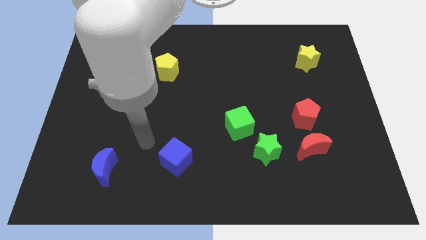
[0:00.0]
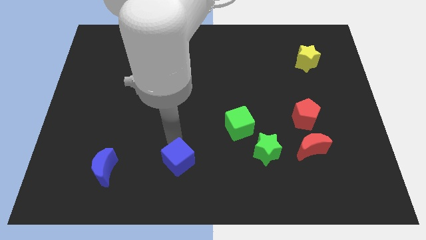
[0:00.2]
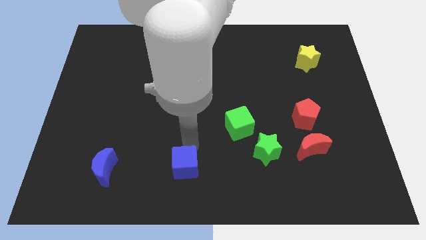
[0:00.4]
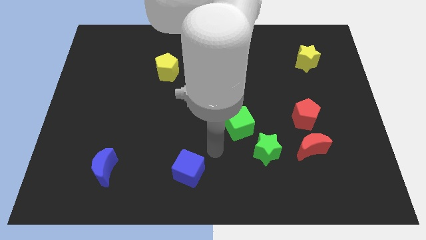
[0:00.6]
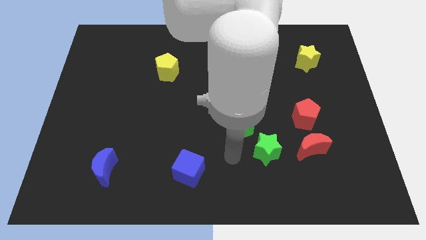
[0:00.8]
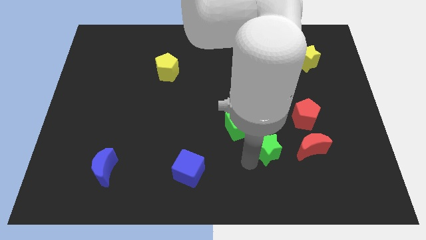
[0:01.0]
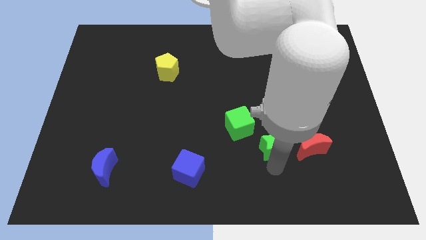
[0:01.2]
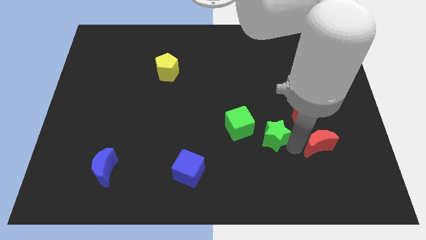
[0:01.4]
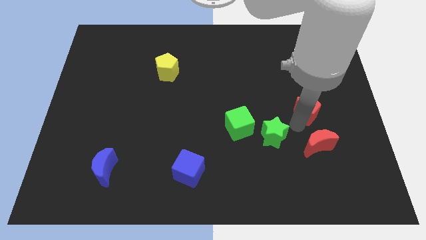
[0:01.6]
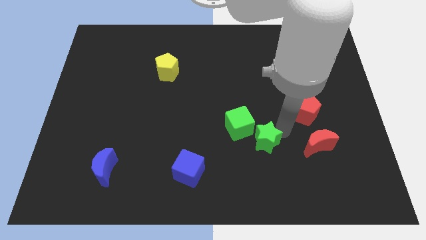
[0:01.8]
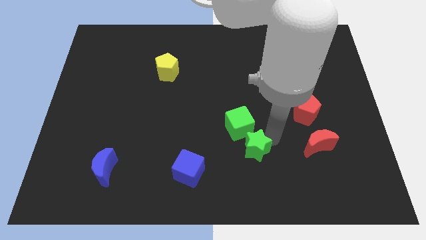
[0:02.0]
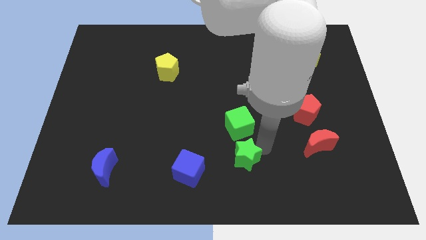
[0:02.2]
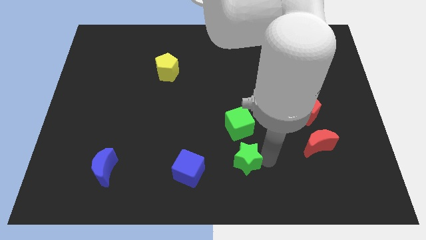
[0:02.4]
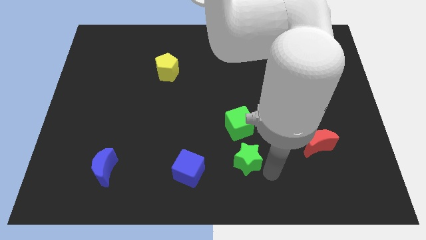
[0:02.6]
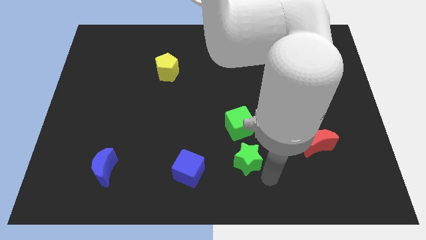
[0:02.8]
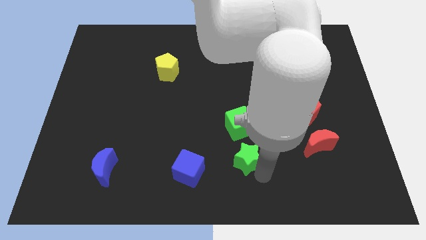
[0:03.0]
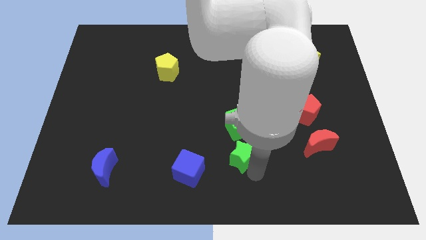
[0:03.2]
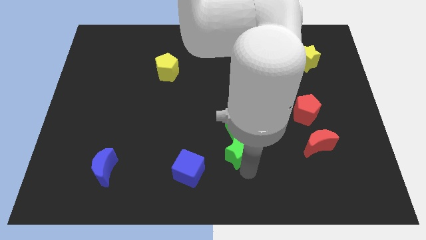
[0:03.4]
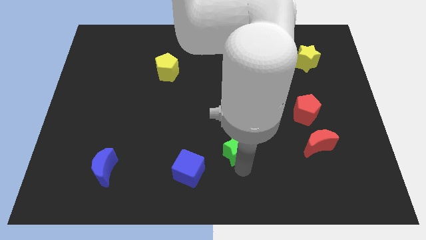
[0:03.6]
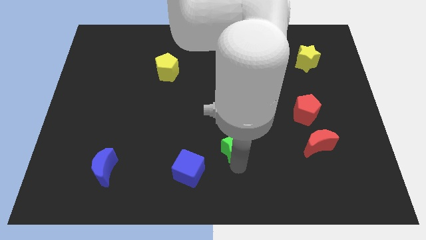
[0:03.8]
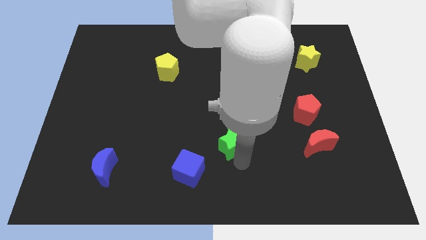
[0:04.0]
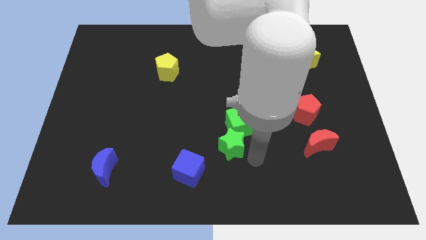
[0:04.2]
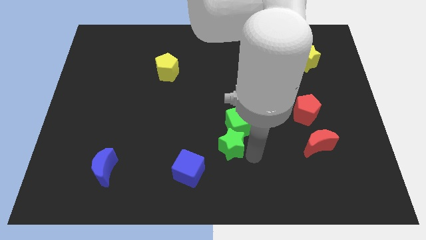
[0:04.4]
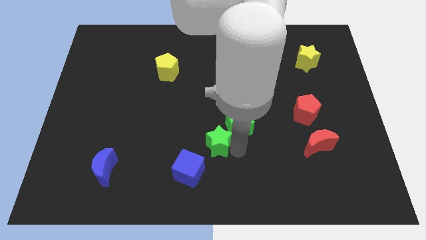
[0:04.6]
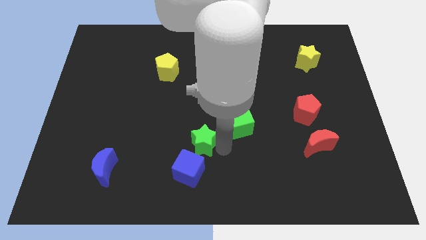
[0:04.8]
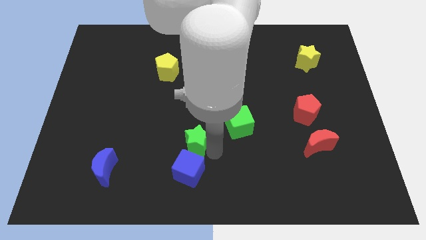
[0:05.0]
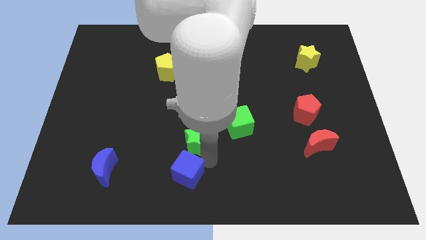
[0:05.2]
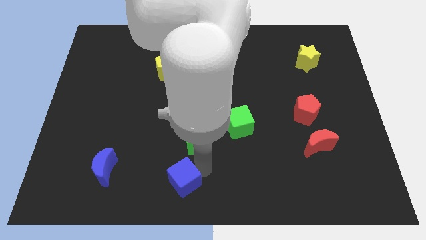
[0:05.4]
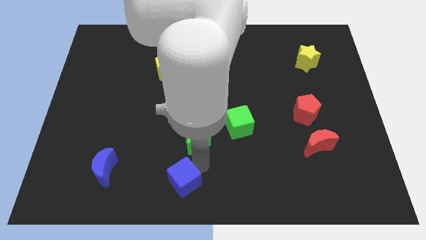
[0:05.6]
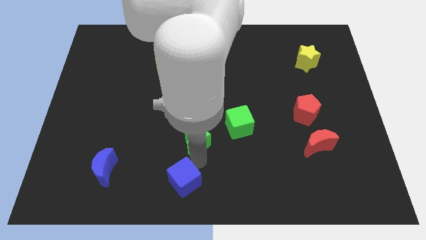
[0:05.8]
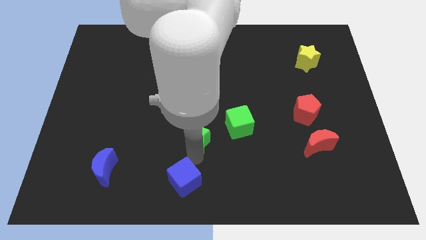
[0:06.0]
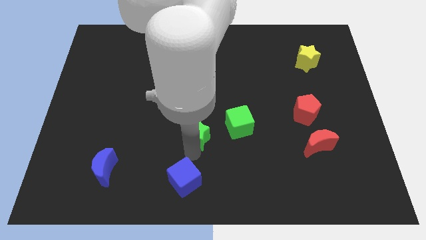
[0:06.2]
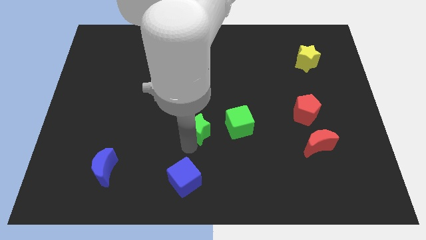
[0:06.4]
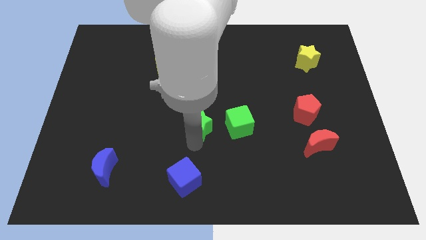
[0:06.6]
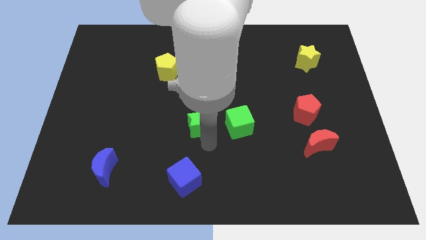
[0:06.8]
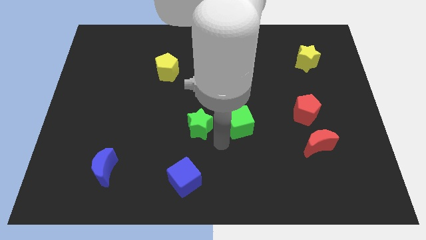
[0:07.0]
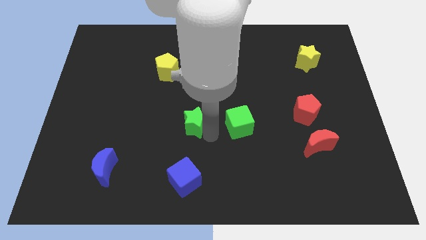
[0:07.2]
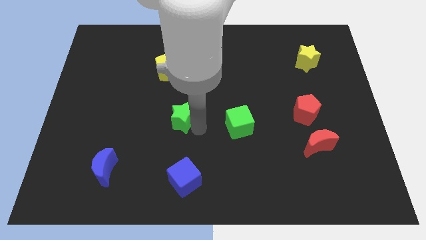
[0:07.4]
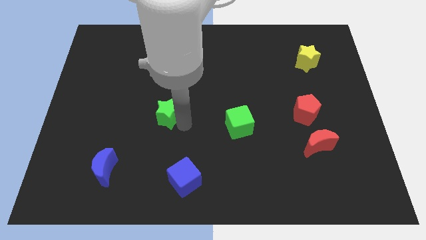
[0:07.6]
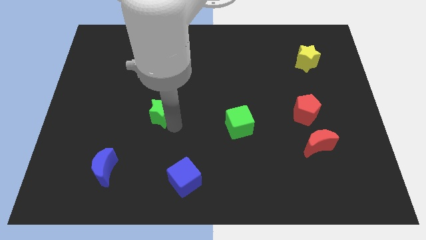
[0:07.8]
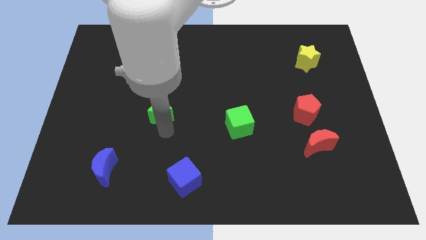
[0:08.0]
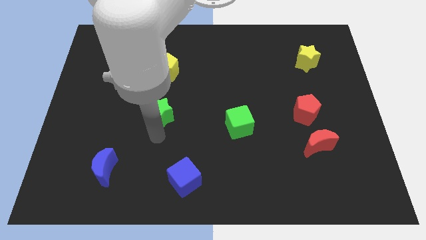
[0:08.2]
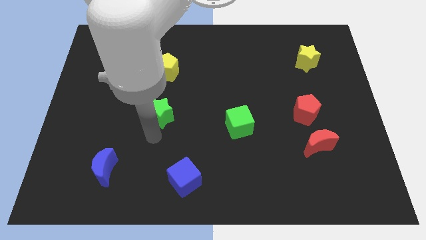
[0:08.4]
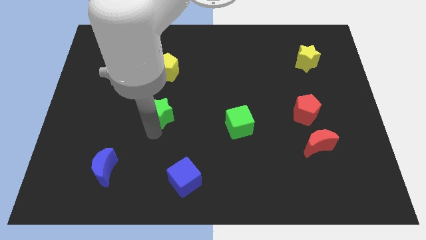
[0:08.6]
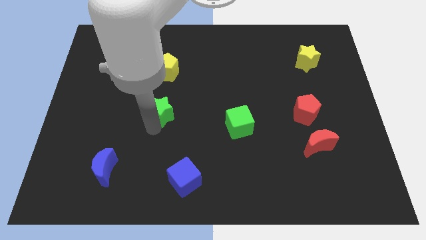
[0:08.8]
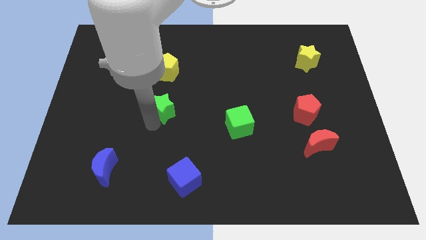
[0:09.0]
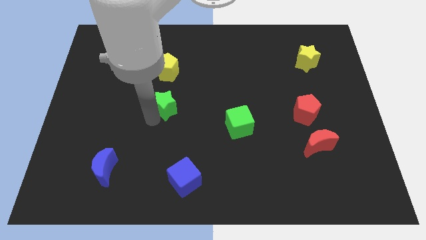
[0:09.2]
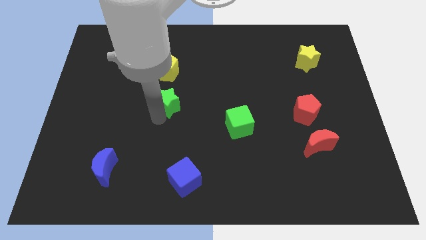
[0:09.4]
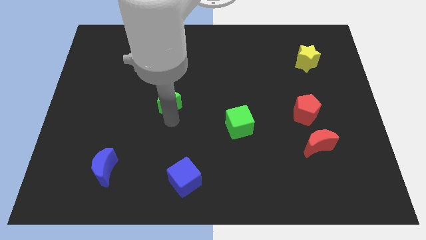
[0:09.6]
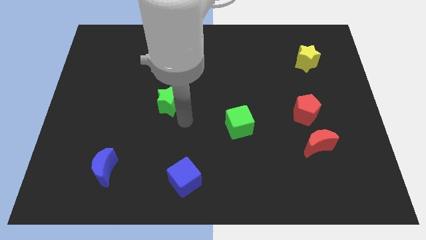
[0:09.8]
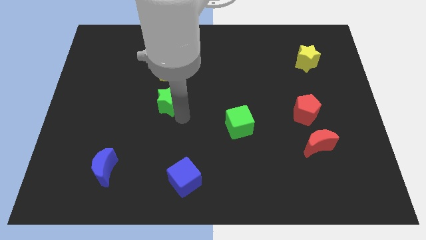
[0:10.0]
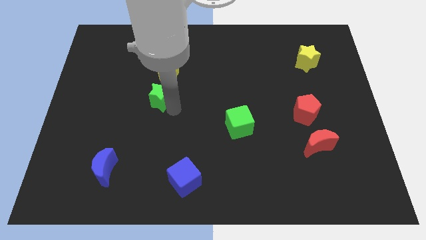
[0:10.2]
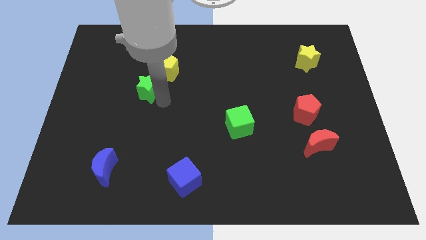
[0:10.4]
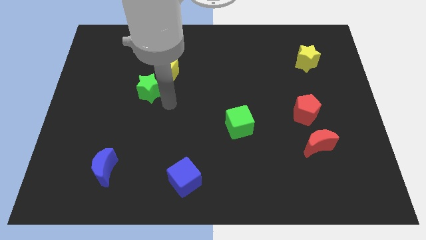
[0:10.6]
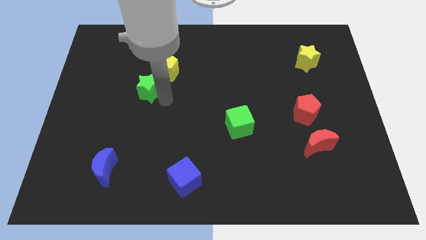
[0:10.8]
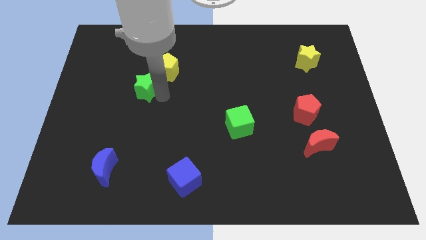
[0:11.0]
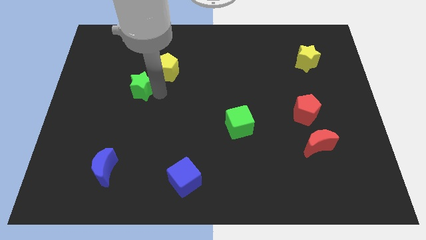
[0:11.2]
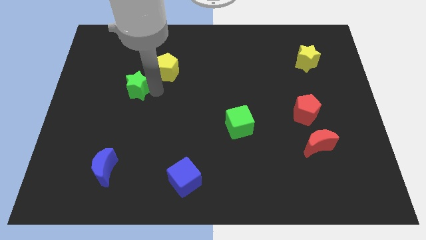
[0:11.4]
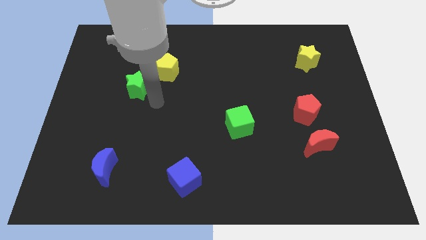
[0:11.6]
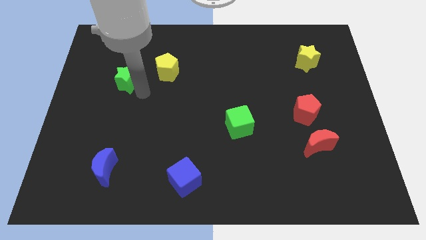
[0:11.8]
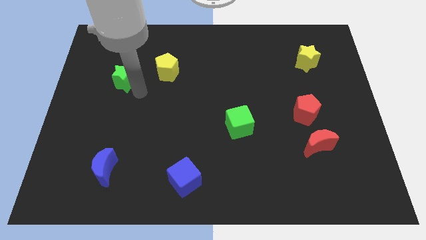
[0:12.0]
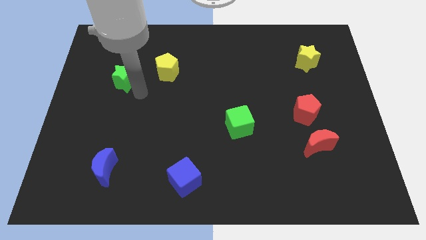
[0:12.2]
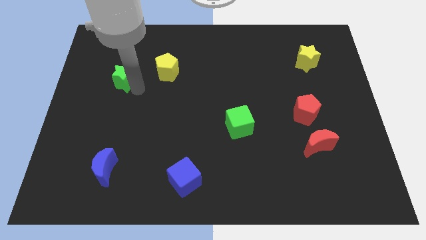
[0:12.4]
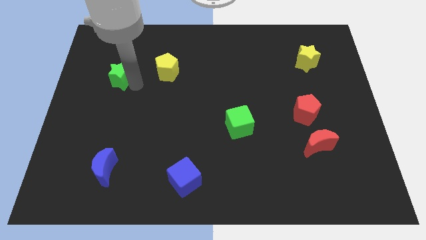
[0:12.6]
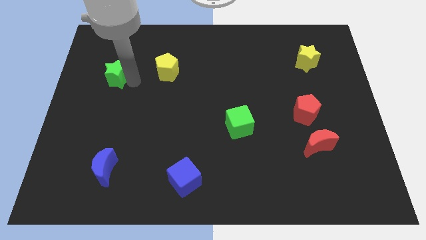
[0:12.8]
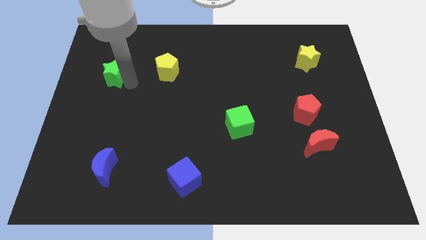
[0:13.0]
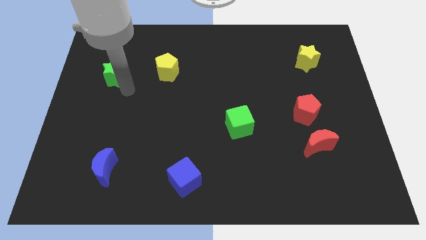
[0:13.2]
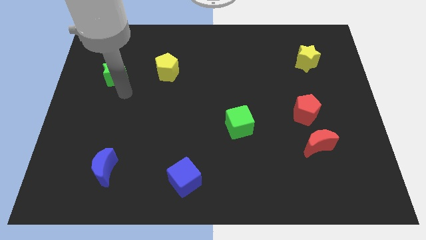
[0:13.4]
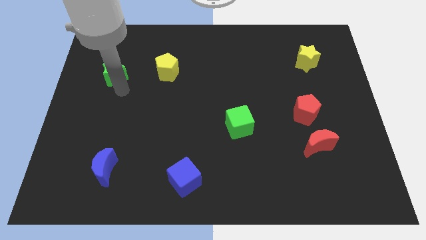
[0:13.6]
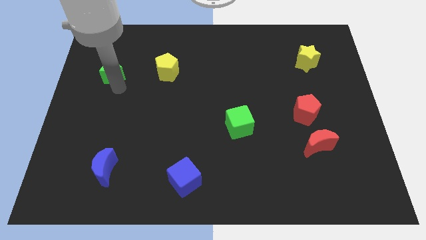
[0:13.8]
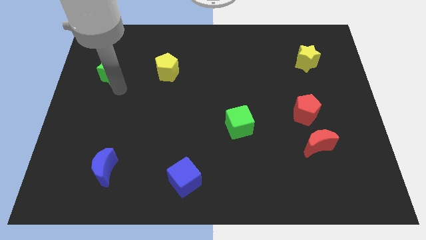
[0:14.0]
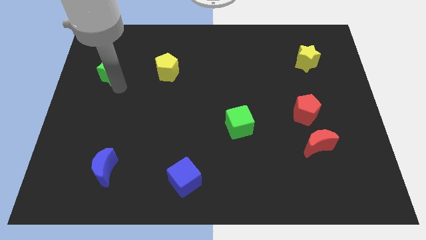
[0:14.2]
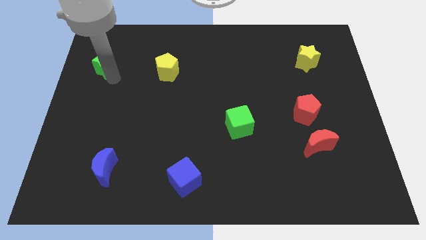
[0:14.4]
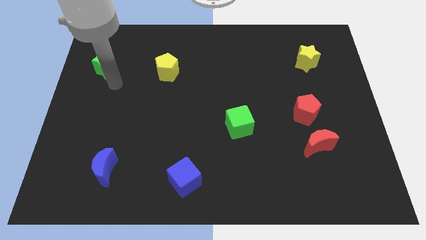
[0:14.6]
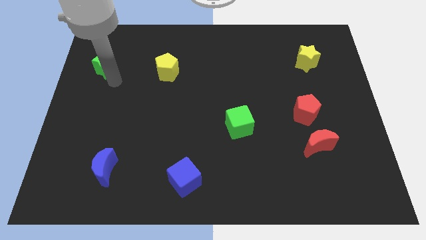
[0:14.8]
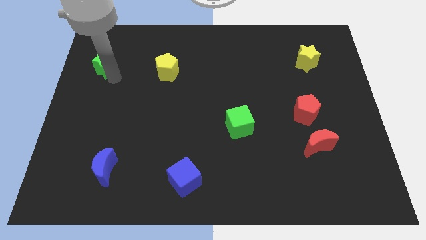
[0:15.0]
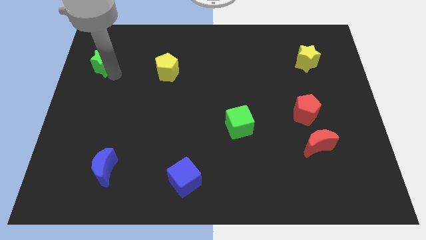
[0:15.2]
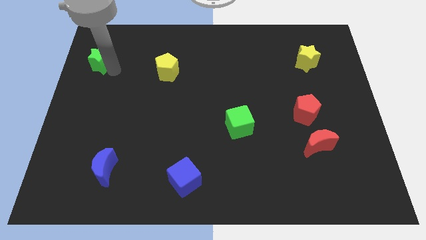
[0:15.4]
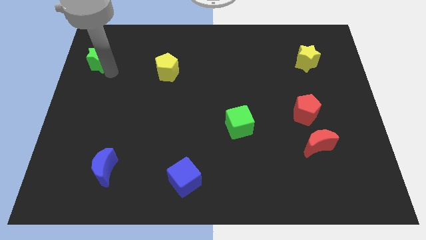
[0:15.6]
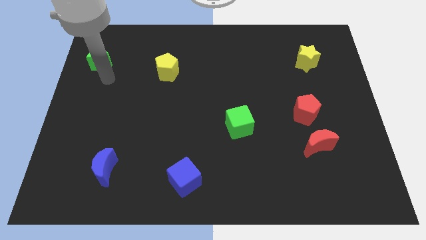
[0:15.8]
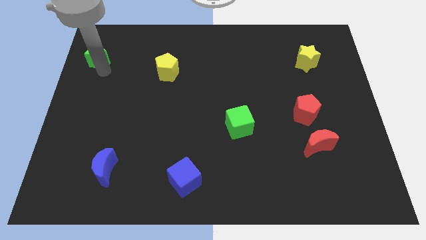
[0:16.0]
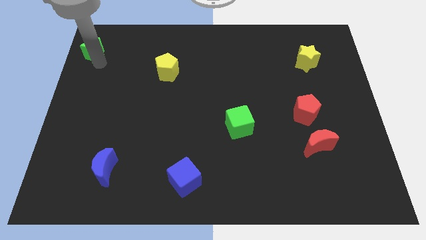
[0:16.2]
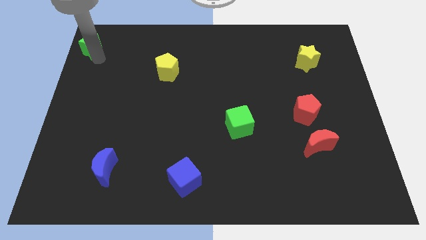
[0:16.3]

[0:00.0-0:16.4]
push the green star to the upper left corner
